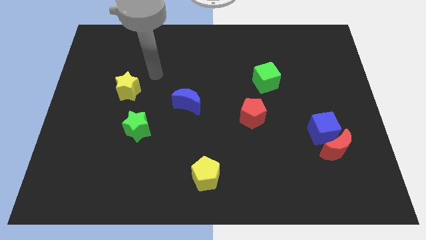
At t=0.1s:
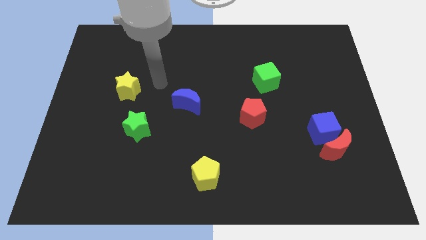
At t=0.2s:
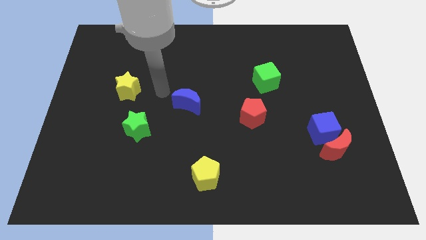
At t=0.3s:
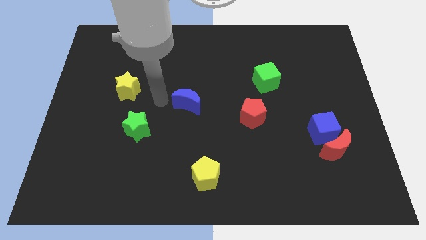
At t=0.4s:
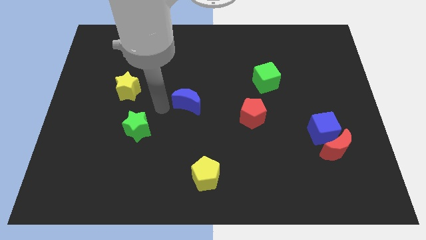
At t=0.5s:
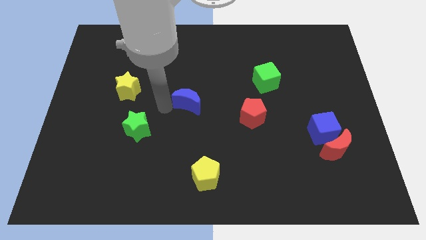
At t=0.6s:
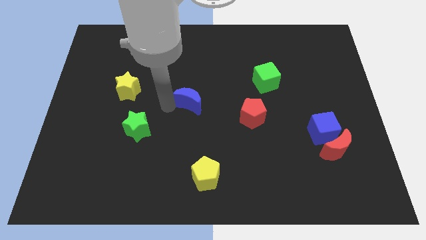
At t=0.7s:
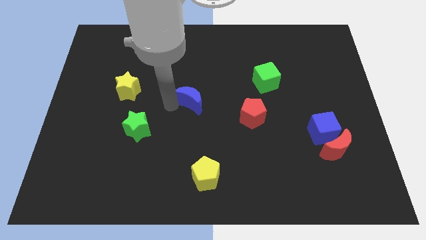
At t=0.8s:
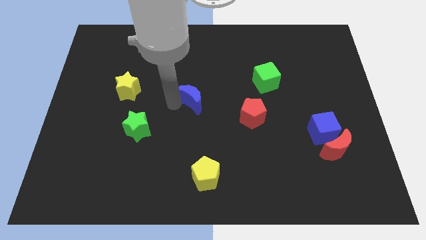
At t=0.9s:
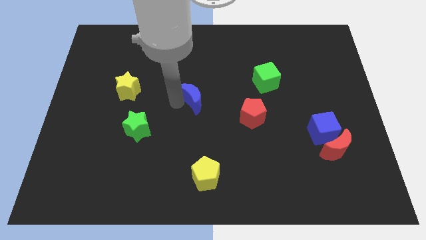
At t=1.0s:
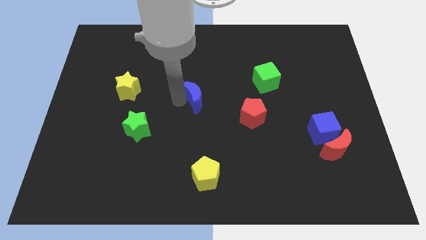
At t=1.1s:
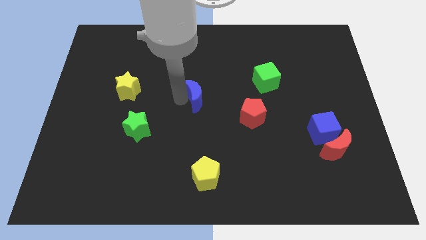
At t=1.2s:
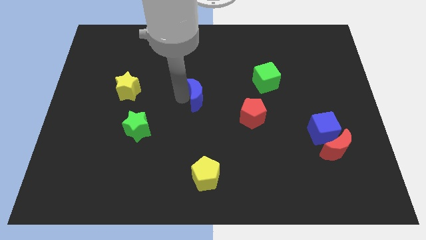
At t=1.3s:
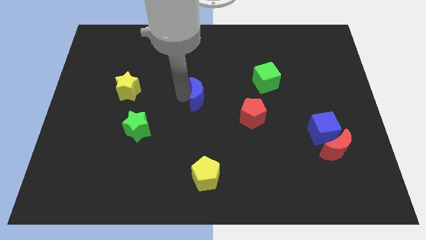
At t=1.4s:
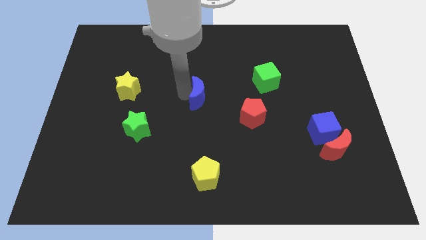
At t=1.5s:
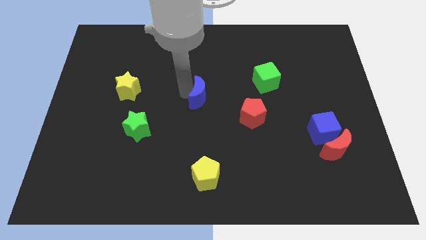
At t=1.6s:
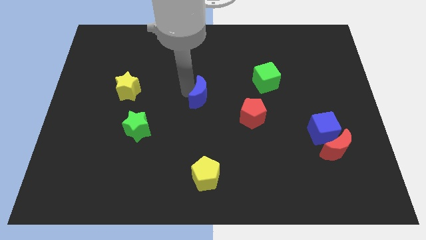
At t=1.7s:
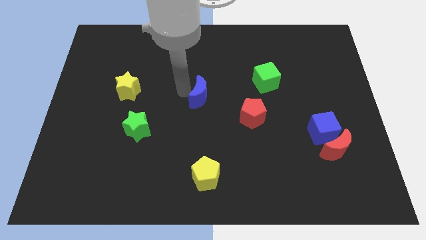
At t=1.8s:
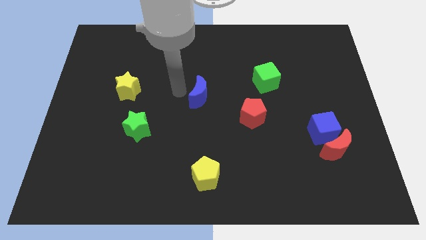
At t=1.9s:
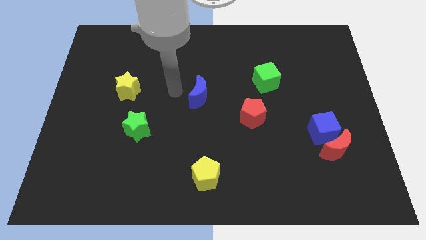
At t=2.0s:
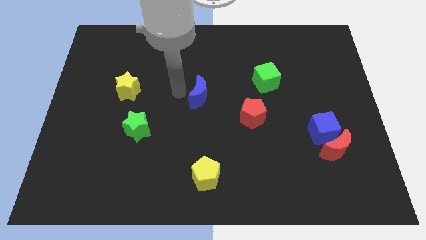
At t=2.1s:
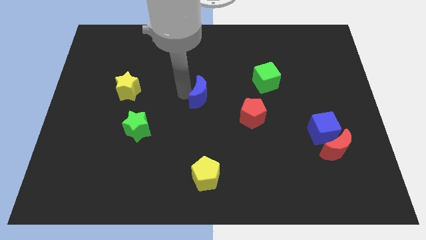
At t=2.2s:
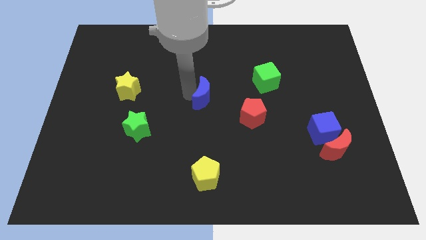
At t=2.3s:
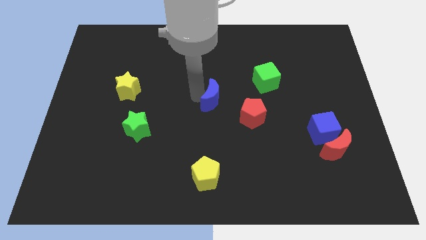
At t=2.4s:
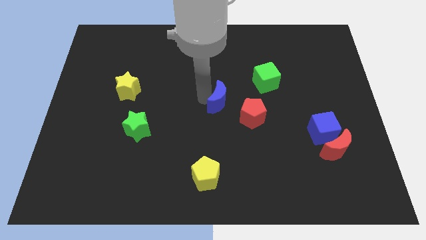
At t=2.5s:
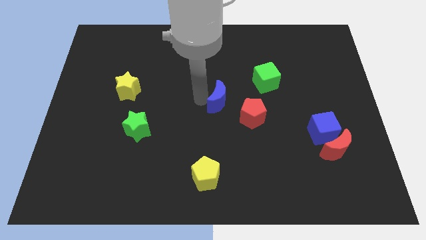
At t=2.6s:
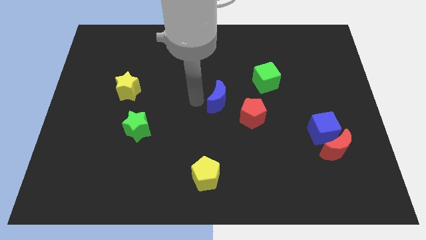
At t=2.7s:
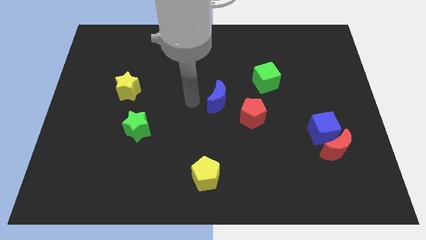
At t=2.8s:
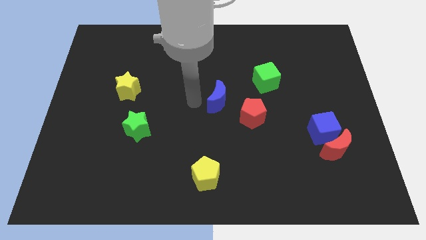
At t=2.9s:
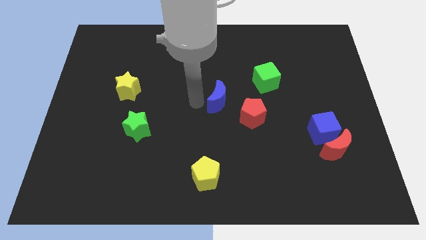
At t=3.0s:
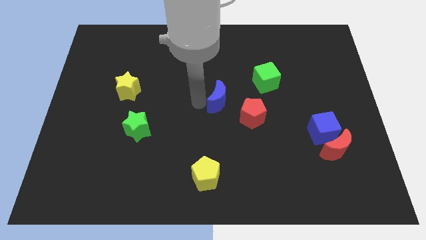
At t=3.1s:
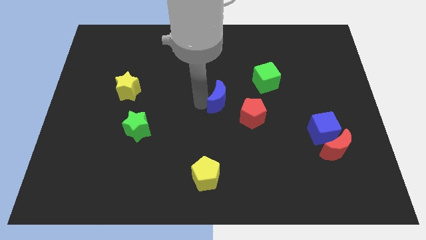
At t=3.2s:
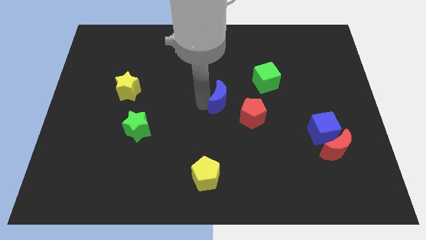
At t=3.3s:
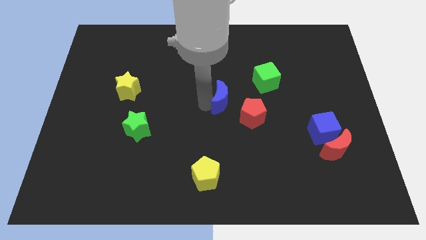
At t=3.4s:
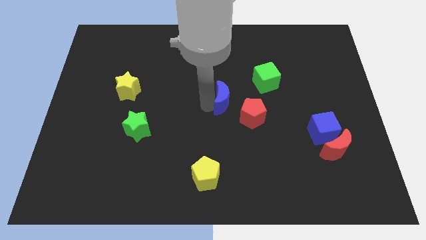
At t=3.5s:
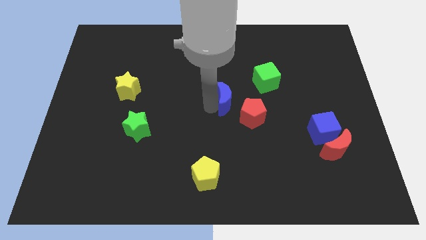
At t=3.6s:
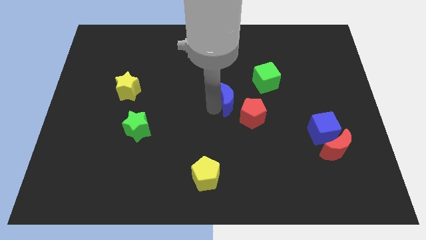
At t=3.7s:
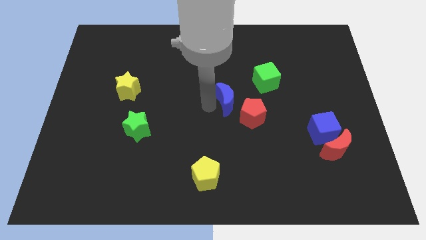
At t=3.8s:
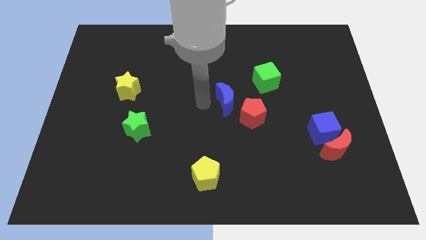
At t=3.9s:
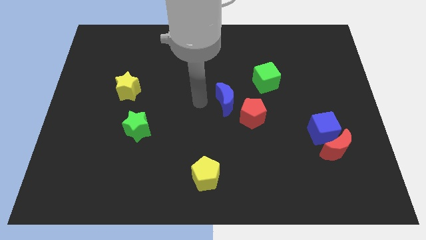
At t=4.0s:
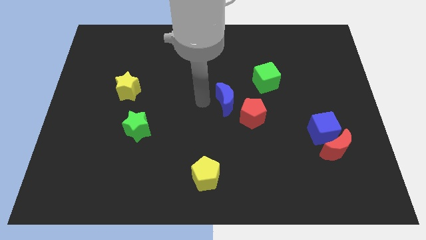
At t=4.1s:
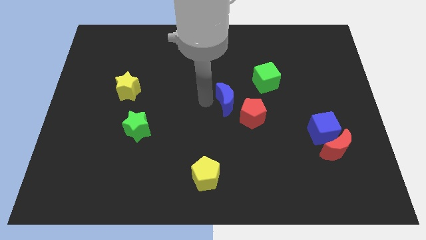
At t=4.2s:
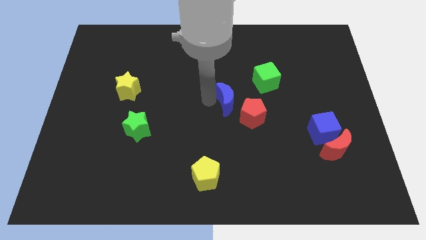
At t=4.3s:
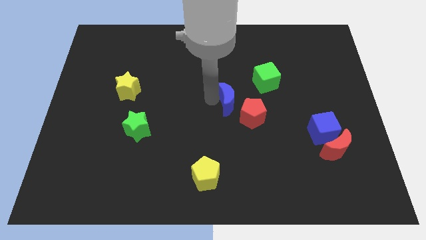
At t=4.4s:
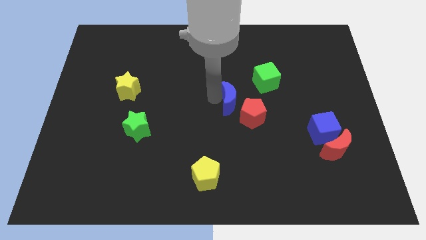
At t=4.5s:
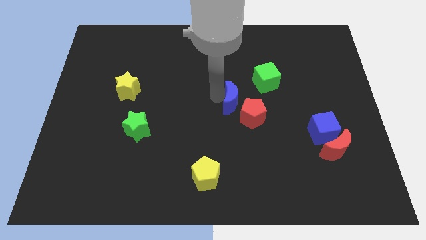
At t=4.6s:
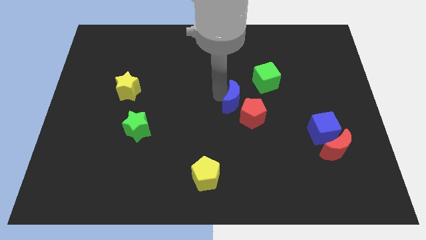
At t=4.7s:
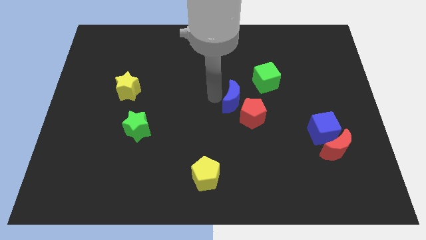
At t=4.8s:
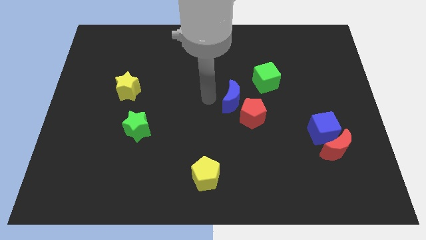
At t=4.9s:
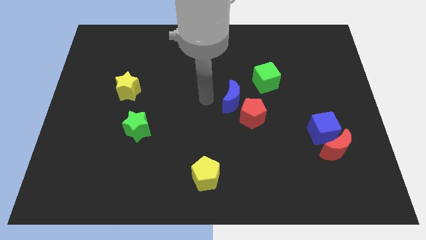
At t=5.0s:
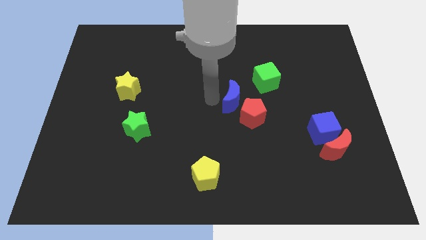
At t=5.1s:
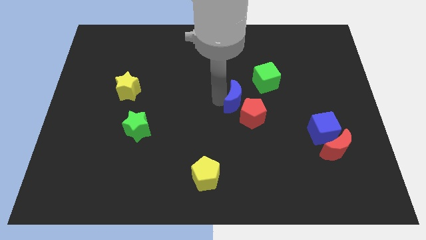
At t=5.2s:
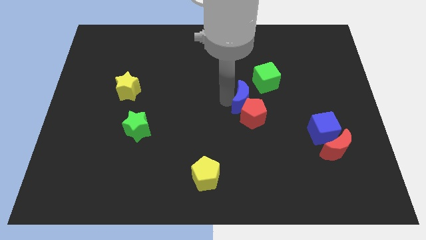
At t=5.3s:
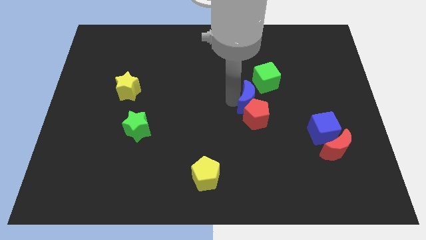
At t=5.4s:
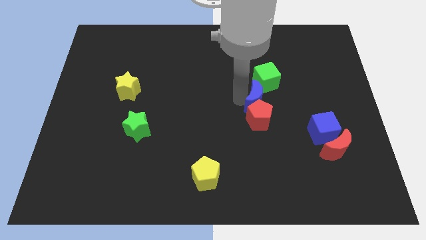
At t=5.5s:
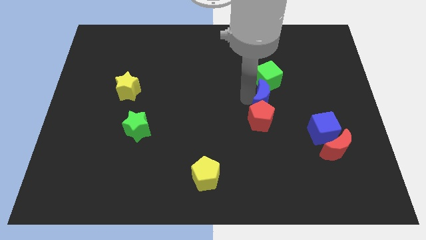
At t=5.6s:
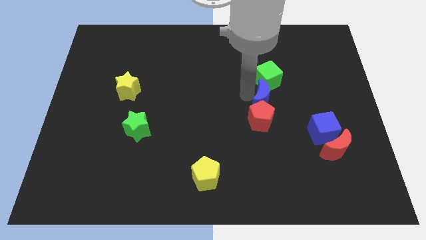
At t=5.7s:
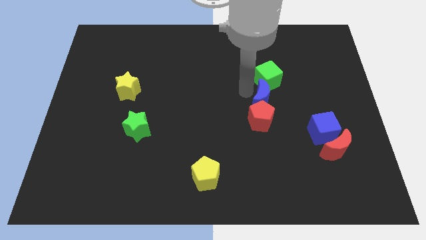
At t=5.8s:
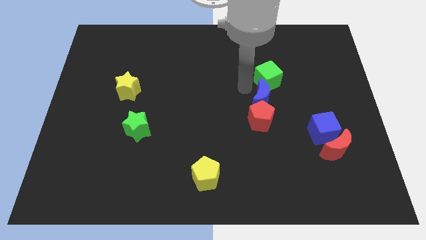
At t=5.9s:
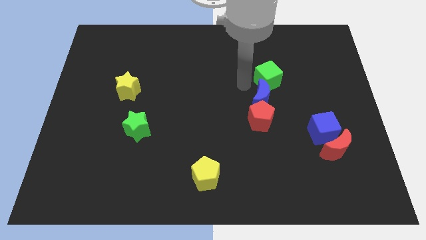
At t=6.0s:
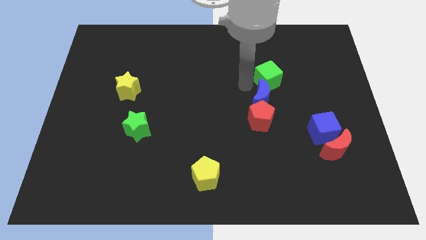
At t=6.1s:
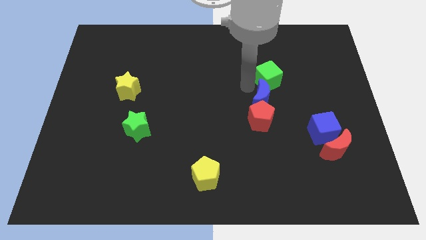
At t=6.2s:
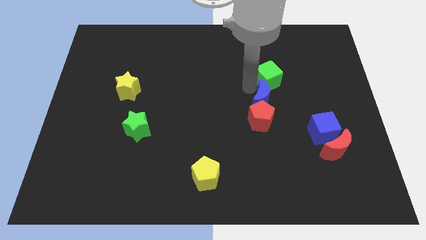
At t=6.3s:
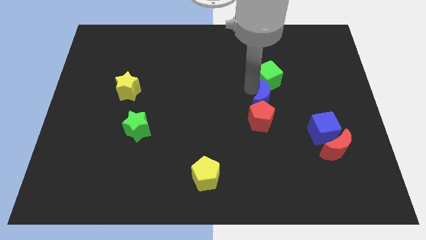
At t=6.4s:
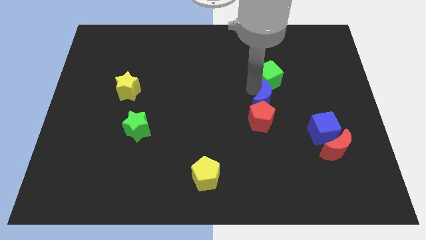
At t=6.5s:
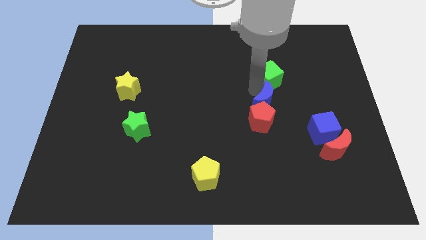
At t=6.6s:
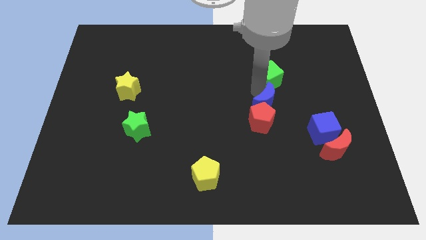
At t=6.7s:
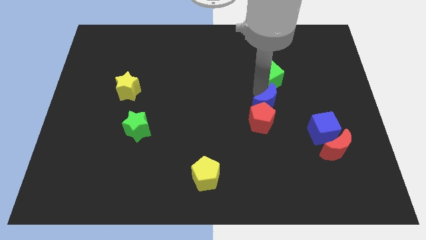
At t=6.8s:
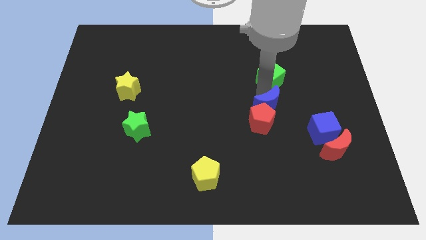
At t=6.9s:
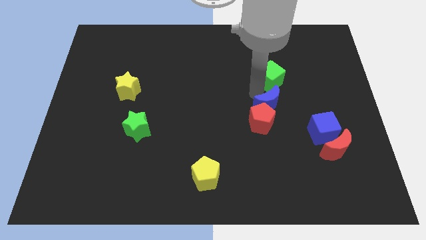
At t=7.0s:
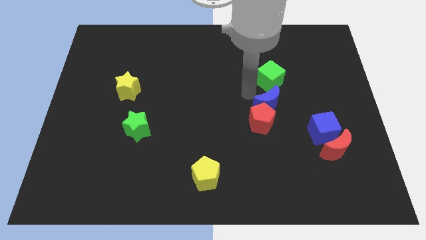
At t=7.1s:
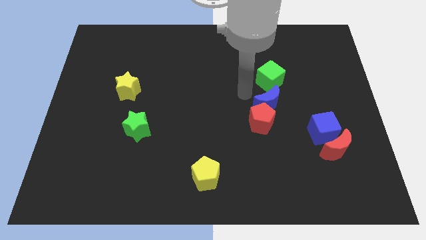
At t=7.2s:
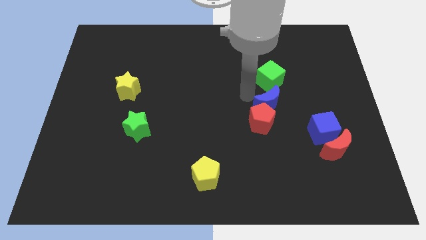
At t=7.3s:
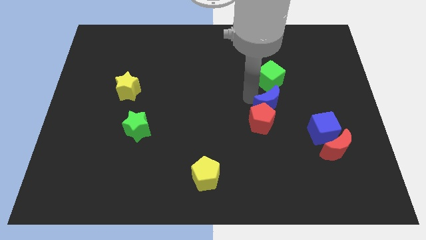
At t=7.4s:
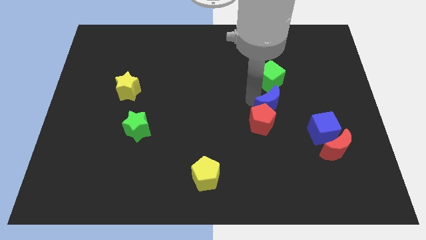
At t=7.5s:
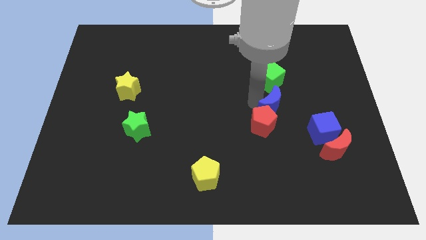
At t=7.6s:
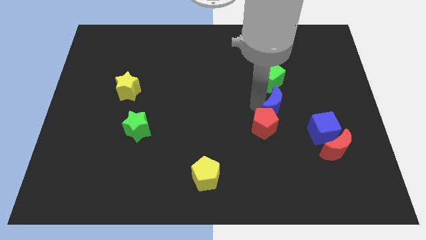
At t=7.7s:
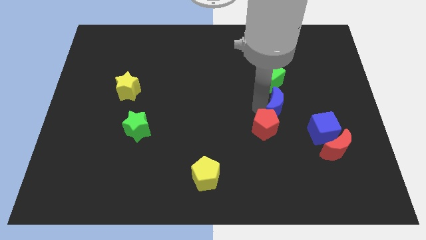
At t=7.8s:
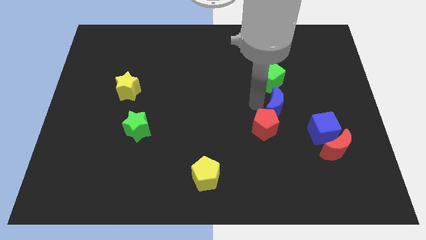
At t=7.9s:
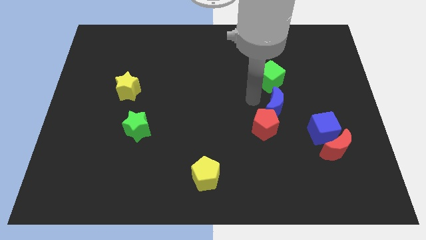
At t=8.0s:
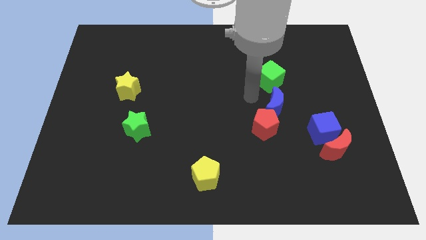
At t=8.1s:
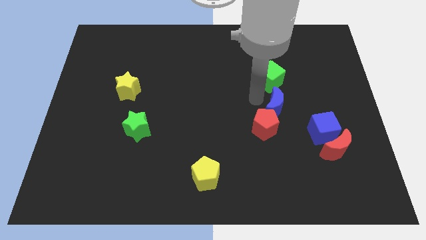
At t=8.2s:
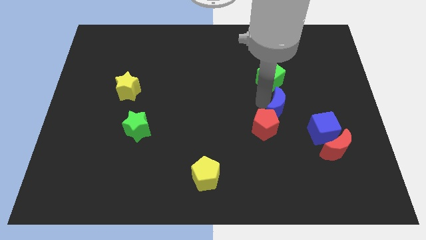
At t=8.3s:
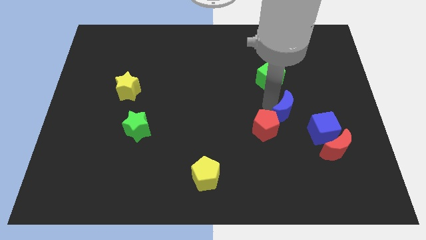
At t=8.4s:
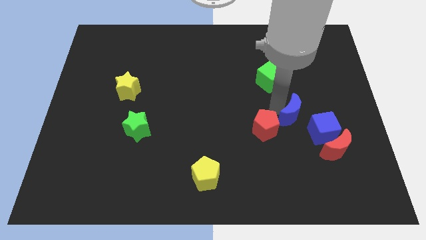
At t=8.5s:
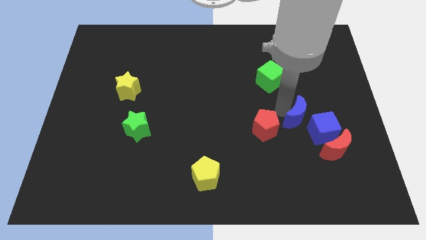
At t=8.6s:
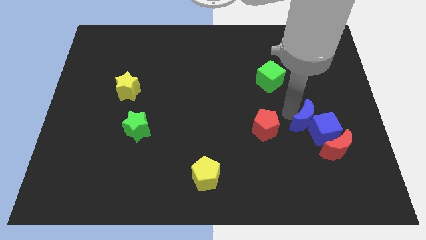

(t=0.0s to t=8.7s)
move the blue moon next to the blue cube
